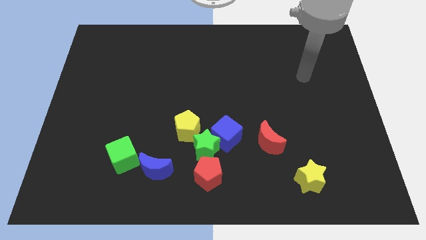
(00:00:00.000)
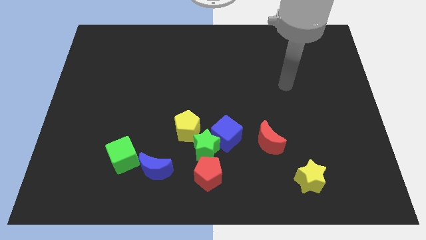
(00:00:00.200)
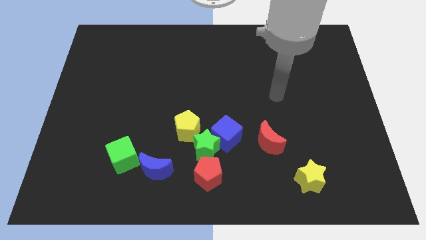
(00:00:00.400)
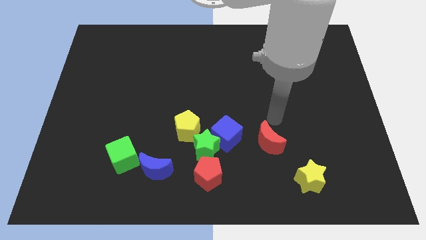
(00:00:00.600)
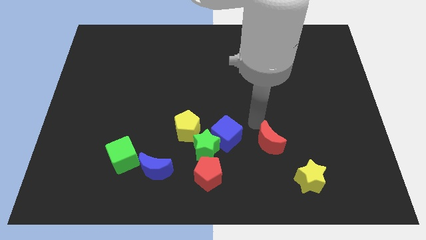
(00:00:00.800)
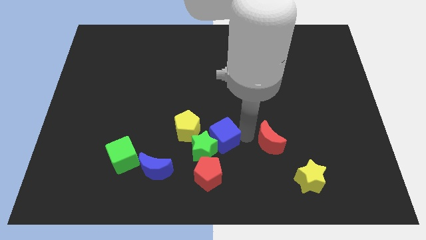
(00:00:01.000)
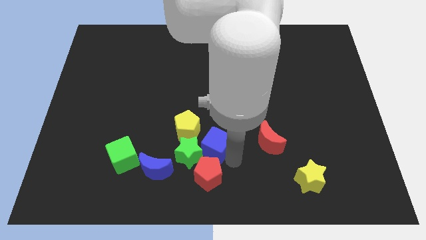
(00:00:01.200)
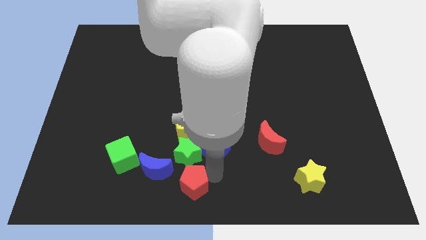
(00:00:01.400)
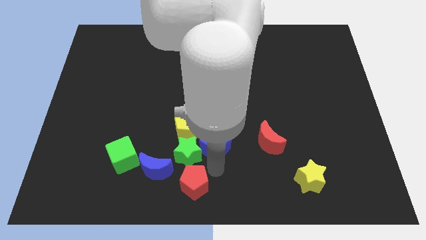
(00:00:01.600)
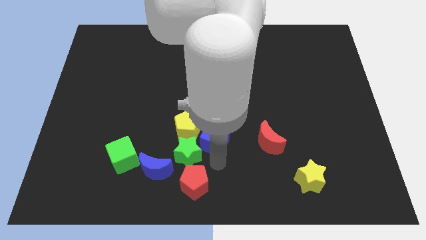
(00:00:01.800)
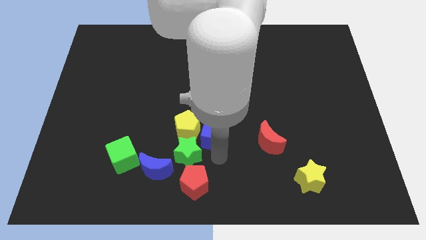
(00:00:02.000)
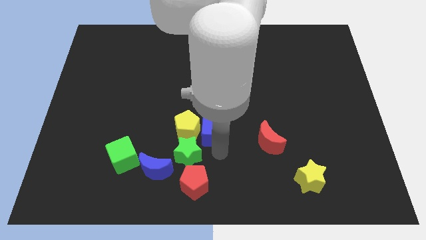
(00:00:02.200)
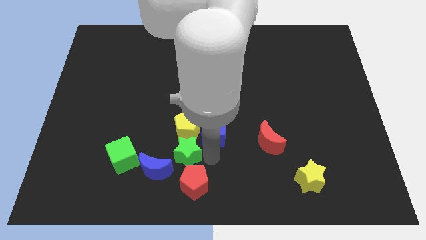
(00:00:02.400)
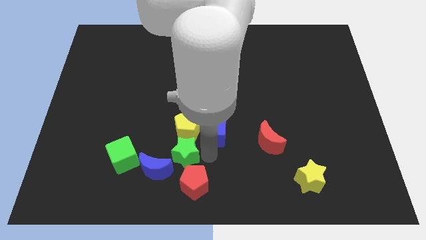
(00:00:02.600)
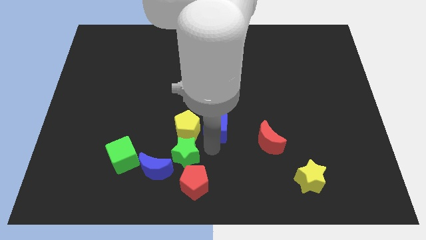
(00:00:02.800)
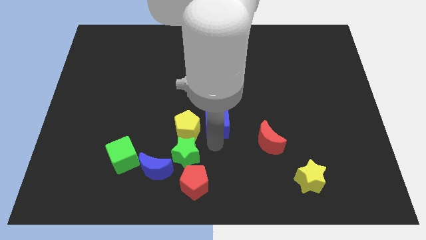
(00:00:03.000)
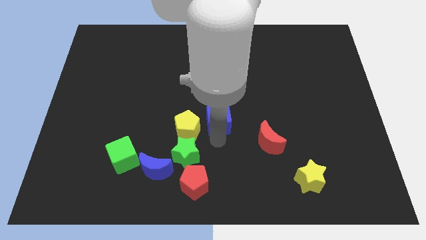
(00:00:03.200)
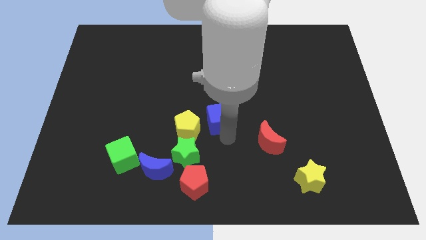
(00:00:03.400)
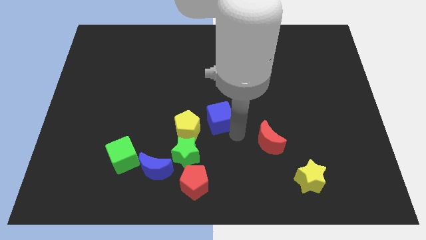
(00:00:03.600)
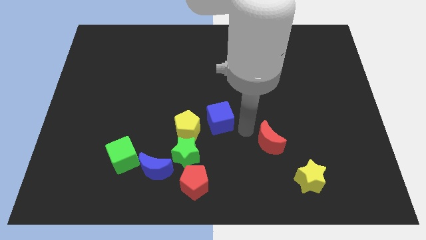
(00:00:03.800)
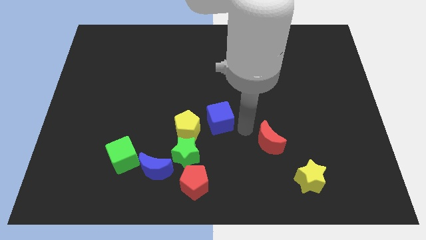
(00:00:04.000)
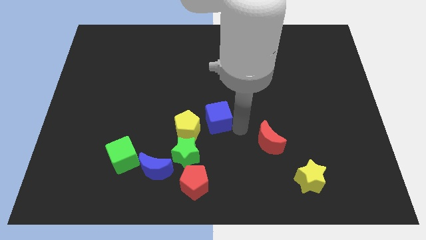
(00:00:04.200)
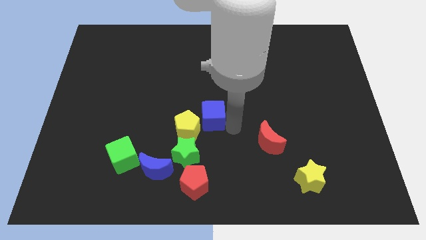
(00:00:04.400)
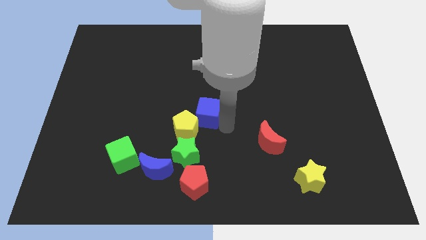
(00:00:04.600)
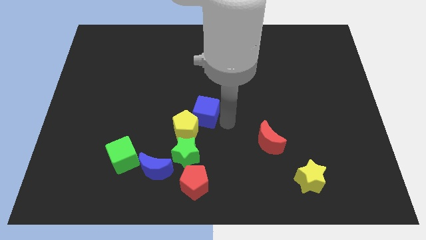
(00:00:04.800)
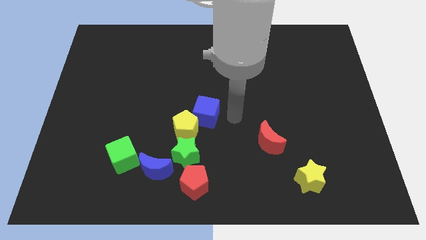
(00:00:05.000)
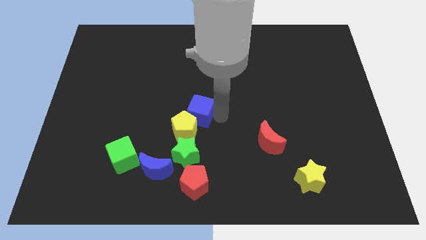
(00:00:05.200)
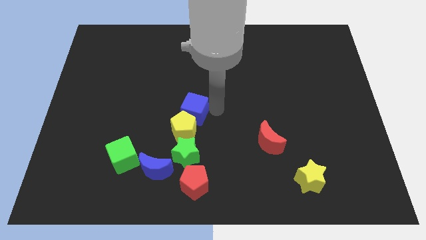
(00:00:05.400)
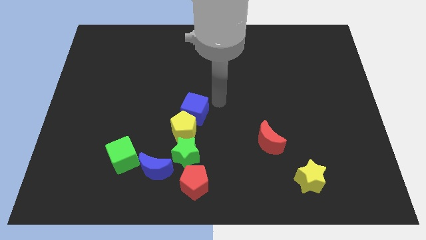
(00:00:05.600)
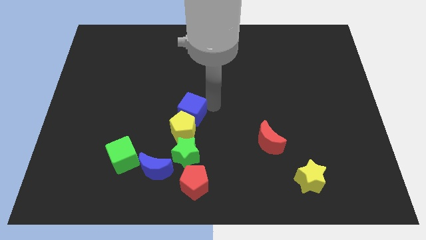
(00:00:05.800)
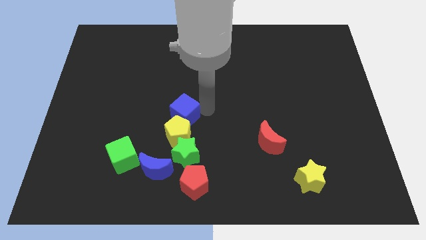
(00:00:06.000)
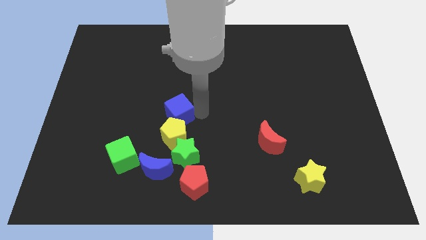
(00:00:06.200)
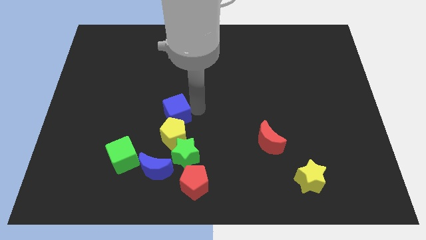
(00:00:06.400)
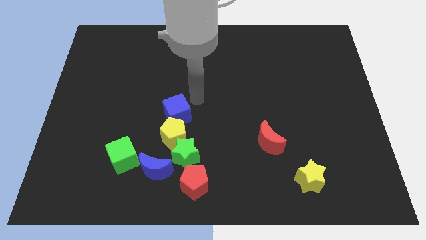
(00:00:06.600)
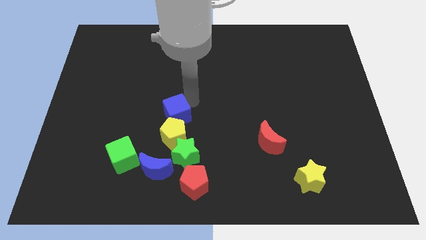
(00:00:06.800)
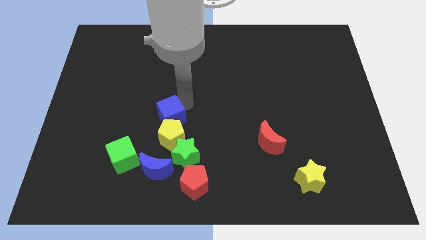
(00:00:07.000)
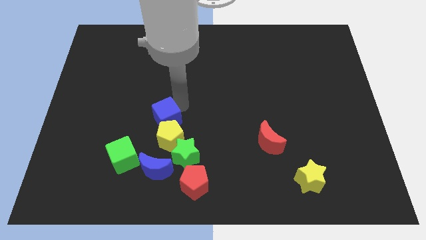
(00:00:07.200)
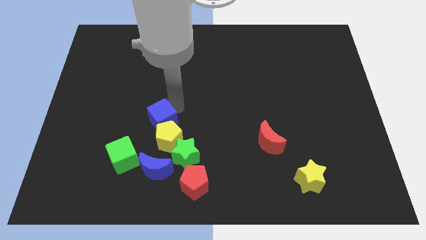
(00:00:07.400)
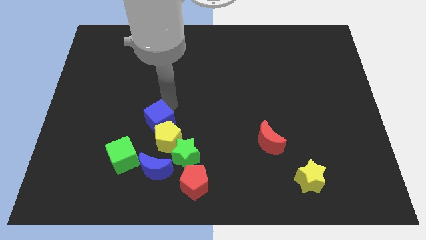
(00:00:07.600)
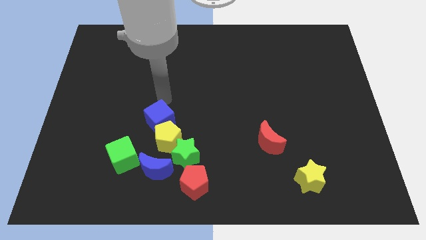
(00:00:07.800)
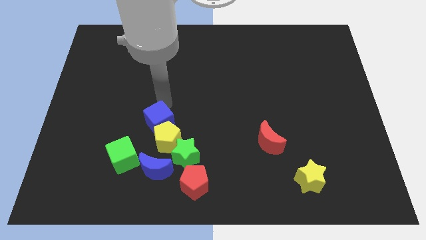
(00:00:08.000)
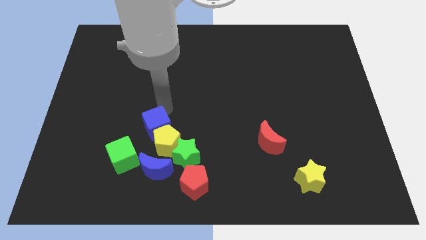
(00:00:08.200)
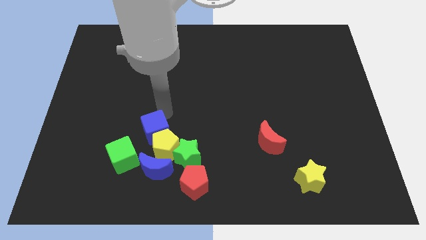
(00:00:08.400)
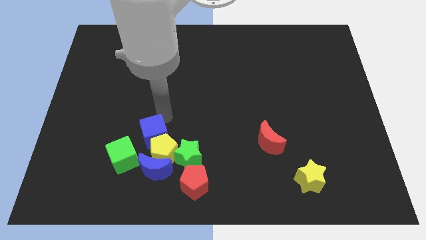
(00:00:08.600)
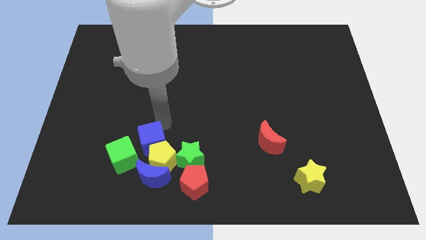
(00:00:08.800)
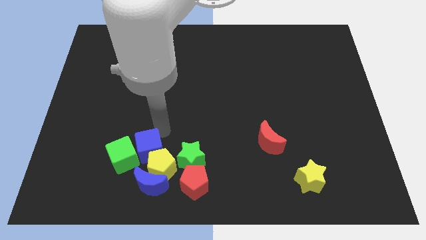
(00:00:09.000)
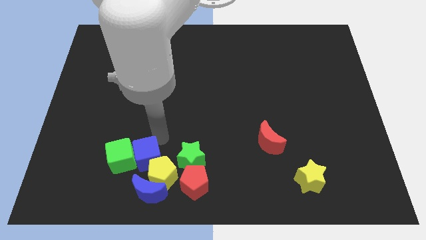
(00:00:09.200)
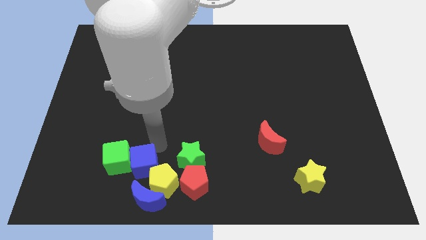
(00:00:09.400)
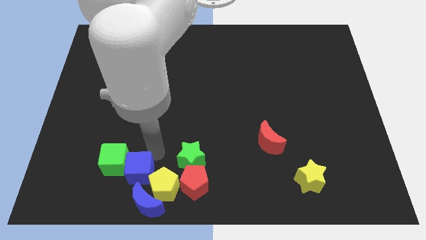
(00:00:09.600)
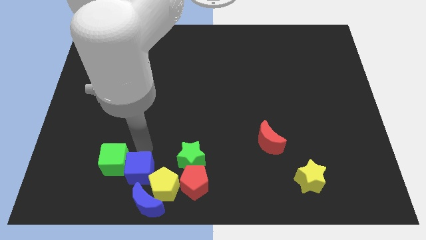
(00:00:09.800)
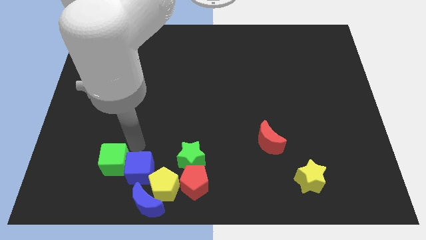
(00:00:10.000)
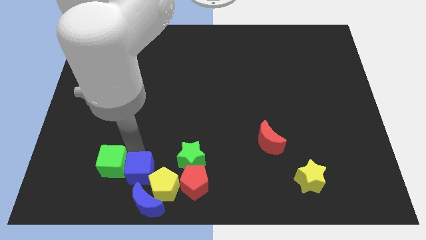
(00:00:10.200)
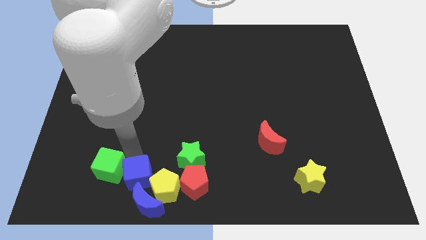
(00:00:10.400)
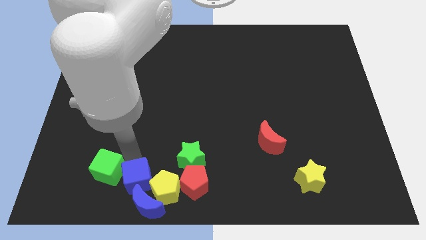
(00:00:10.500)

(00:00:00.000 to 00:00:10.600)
slide the blue cube to the blue moon
